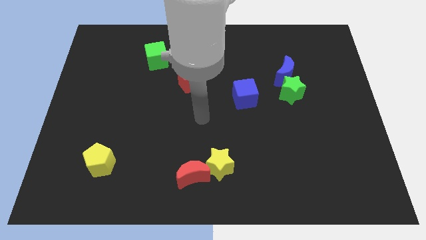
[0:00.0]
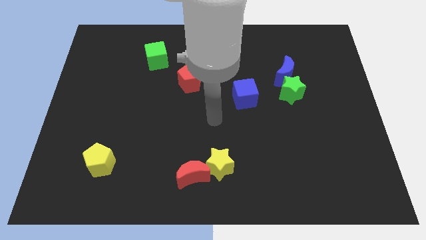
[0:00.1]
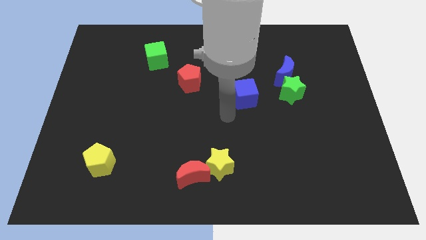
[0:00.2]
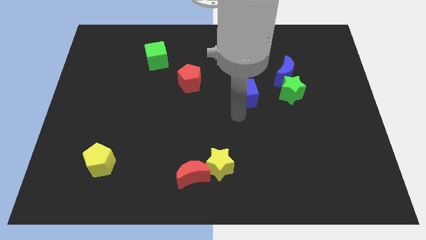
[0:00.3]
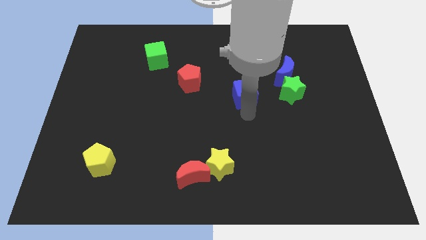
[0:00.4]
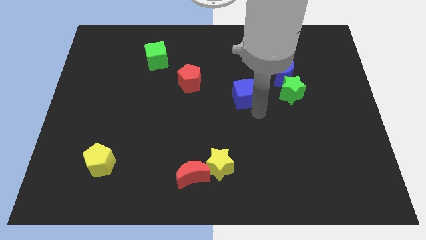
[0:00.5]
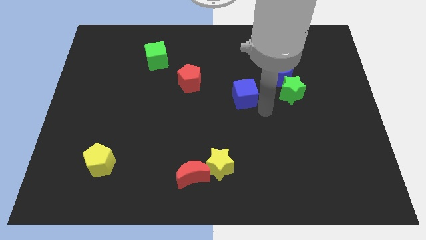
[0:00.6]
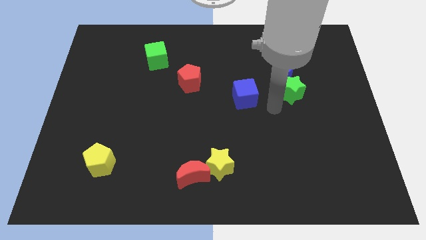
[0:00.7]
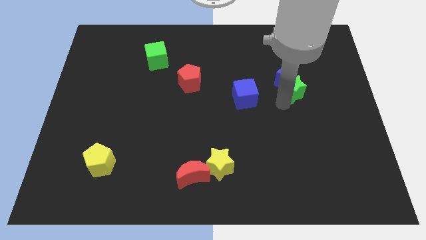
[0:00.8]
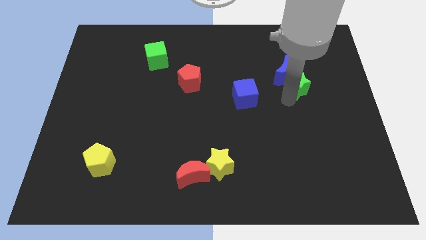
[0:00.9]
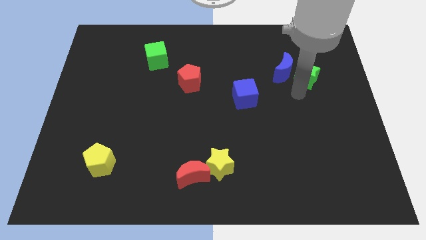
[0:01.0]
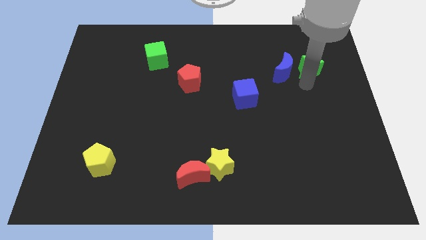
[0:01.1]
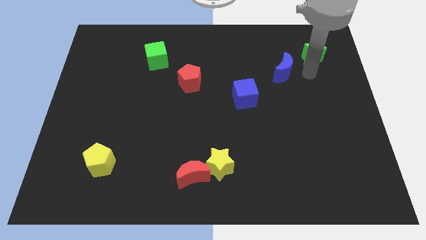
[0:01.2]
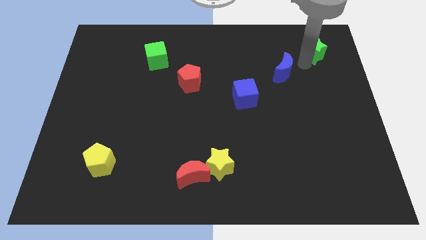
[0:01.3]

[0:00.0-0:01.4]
separate the blue moon from the green star

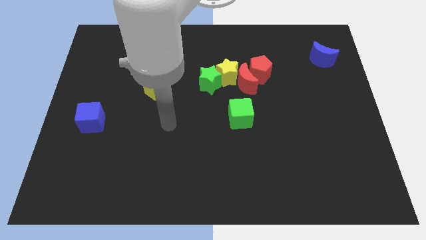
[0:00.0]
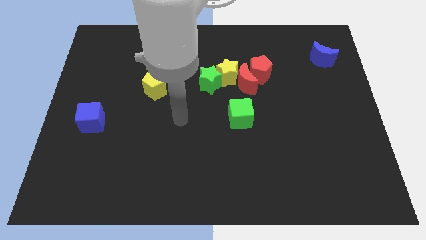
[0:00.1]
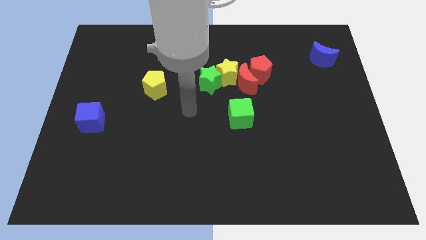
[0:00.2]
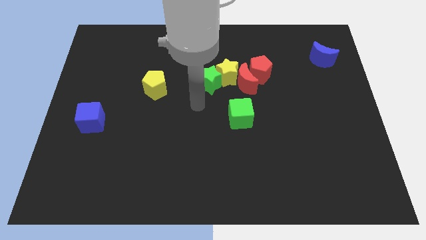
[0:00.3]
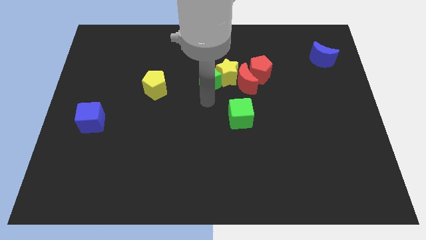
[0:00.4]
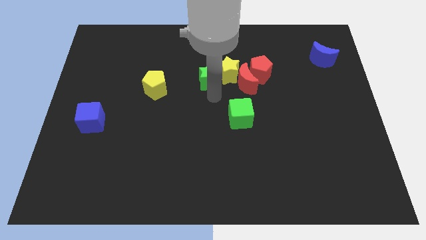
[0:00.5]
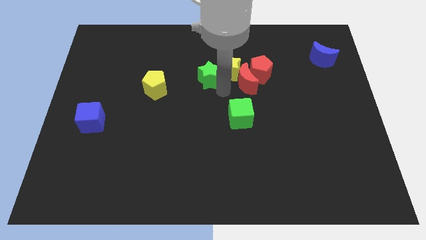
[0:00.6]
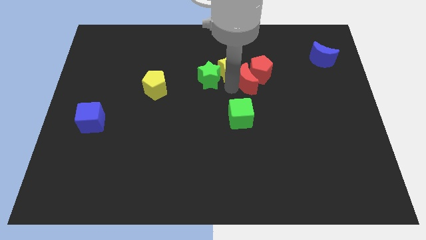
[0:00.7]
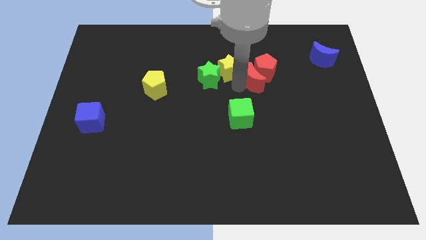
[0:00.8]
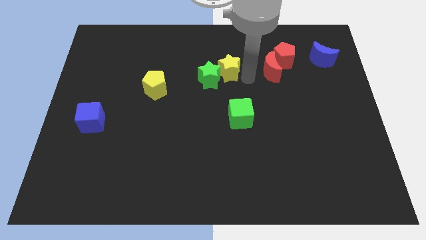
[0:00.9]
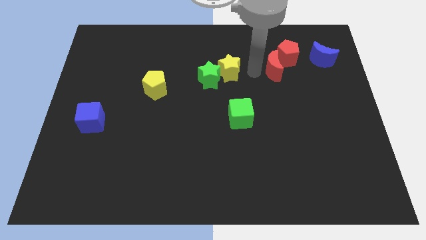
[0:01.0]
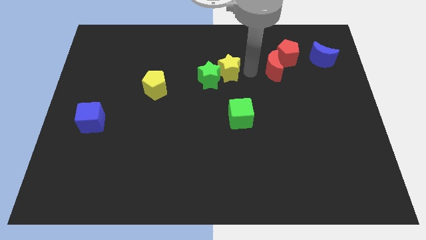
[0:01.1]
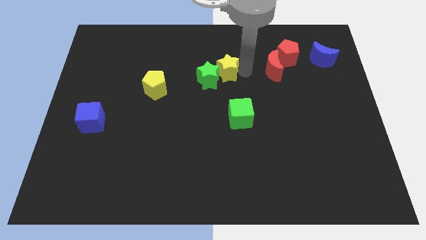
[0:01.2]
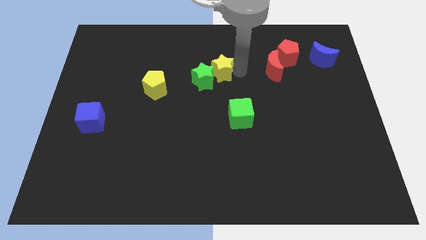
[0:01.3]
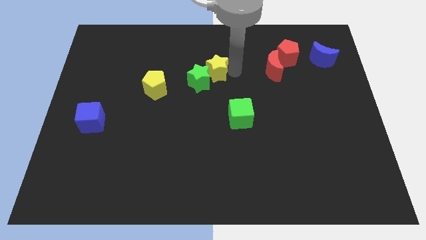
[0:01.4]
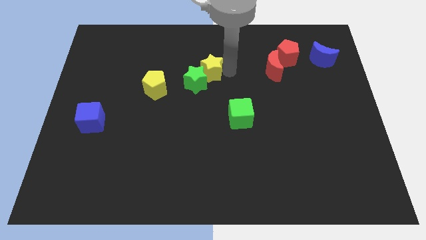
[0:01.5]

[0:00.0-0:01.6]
move the yellow star away from the clump

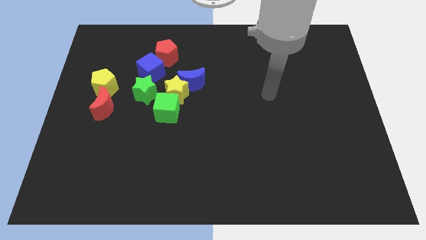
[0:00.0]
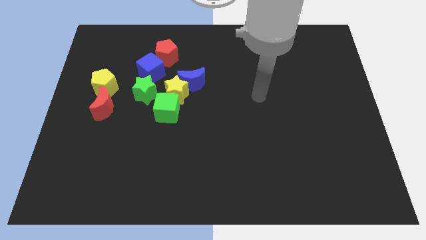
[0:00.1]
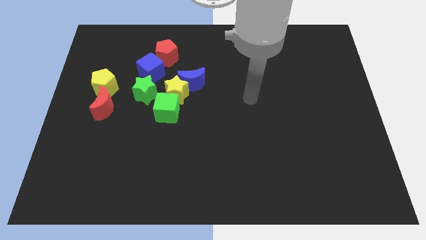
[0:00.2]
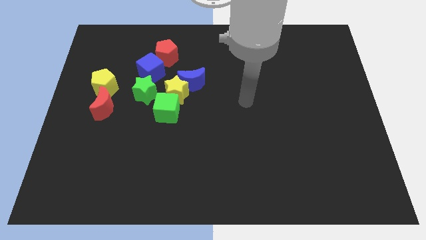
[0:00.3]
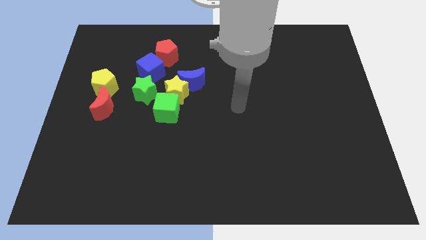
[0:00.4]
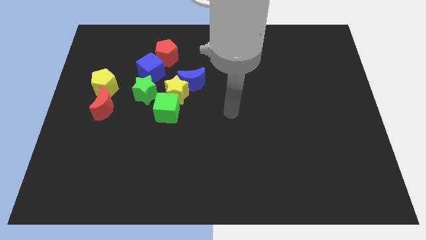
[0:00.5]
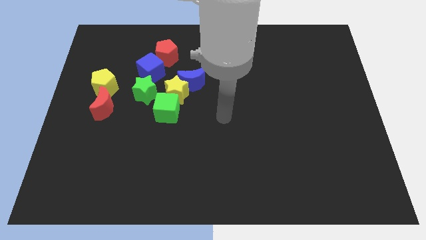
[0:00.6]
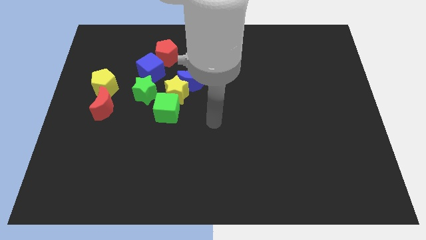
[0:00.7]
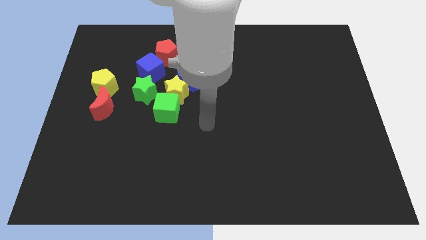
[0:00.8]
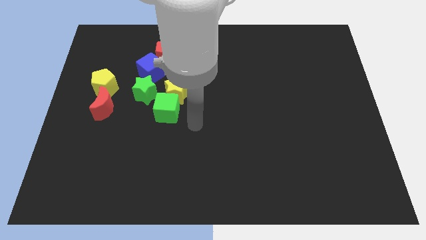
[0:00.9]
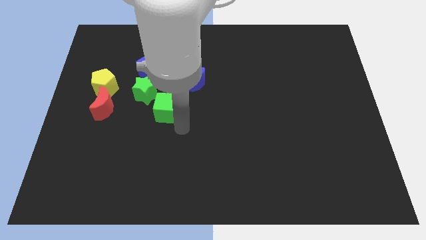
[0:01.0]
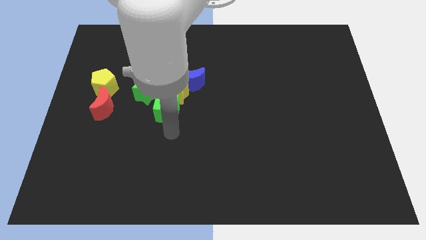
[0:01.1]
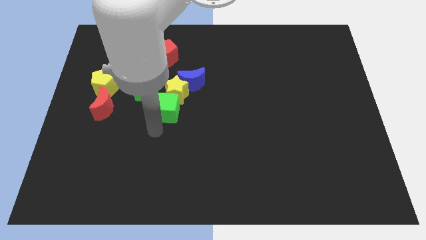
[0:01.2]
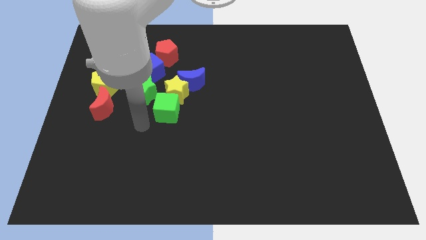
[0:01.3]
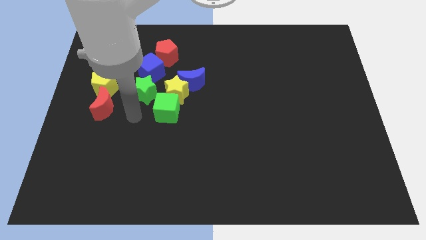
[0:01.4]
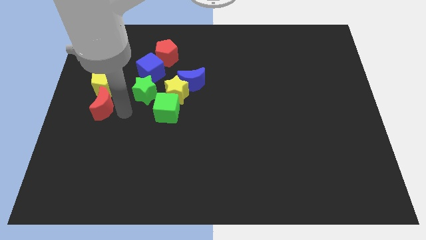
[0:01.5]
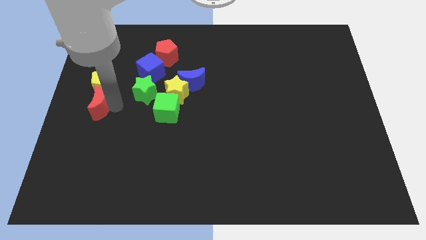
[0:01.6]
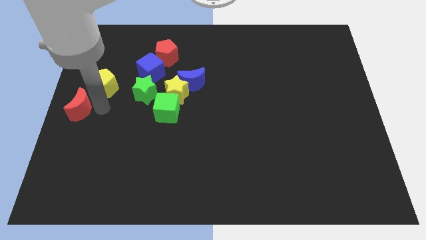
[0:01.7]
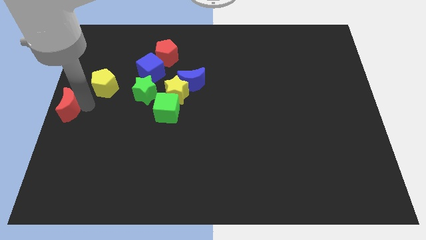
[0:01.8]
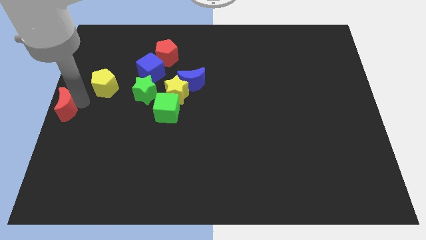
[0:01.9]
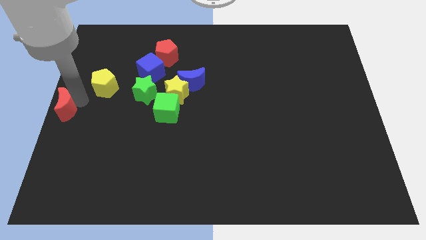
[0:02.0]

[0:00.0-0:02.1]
move the yellow pentagon away from the red moon

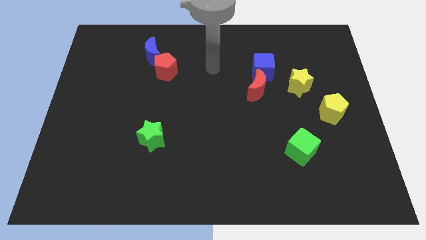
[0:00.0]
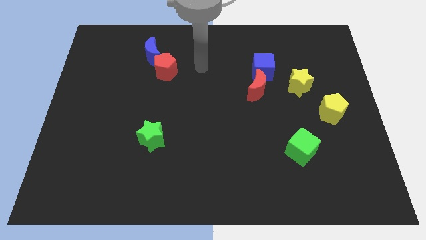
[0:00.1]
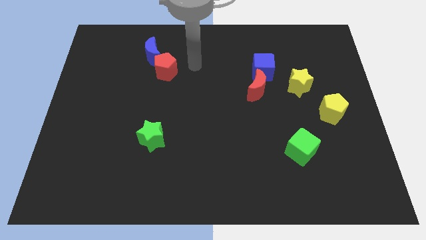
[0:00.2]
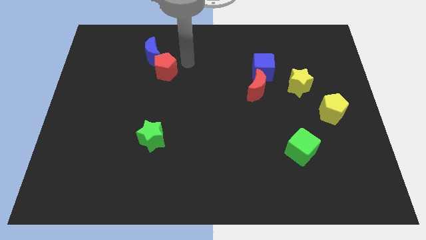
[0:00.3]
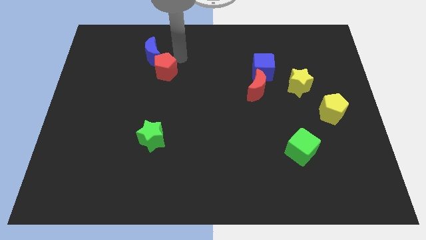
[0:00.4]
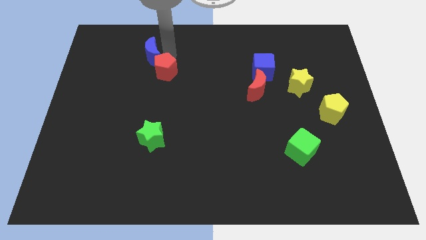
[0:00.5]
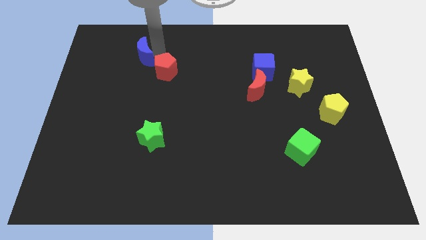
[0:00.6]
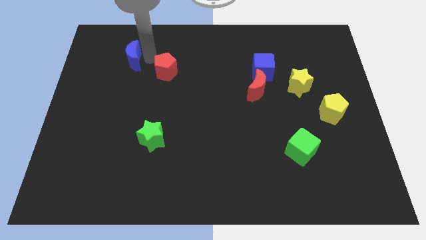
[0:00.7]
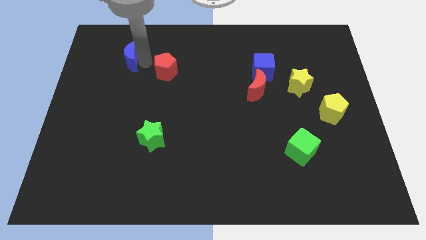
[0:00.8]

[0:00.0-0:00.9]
separate the red pentagon from the blue moon

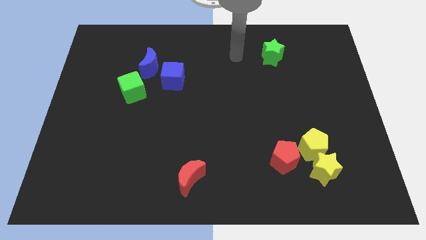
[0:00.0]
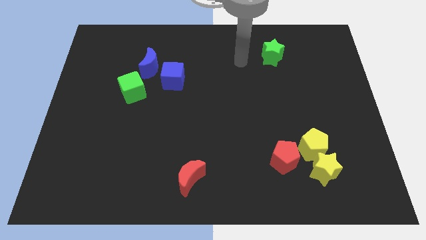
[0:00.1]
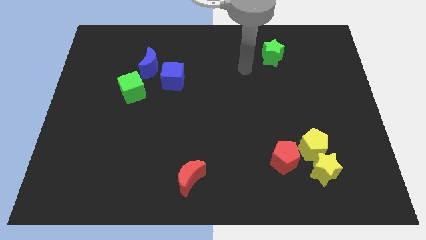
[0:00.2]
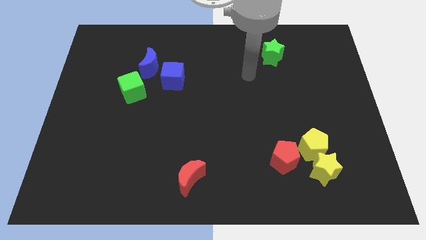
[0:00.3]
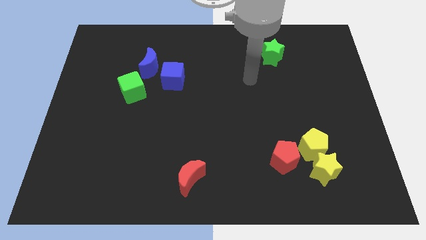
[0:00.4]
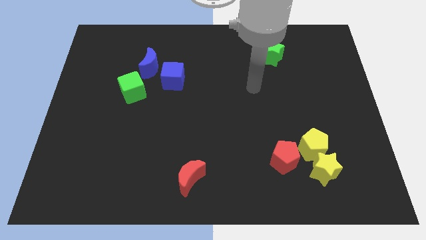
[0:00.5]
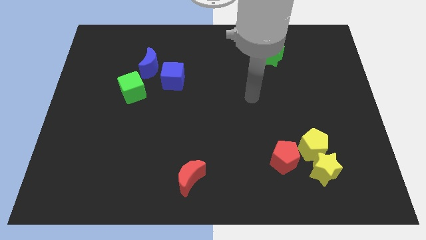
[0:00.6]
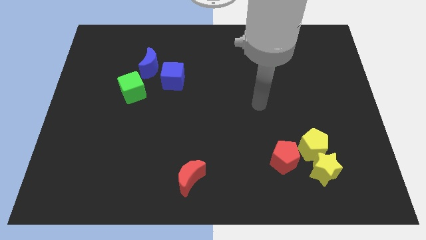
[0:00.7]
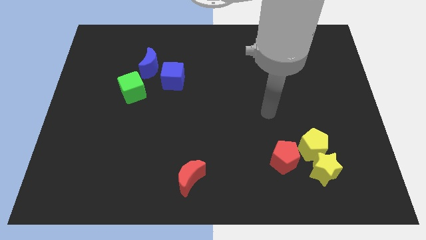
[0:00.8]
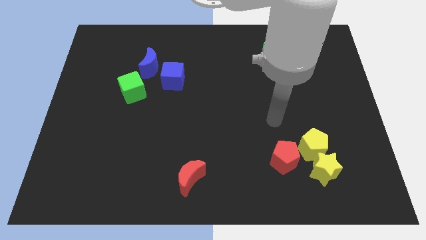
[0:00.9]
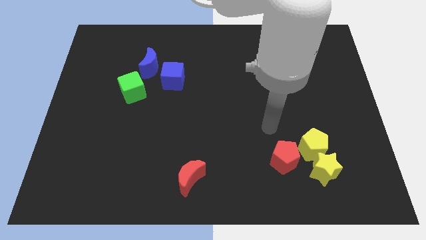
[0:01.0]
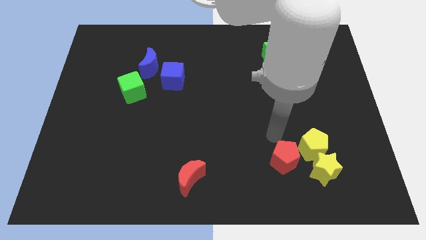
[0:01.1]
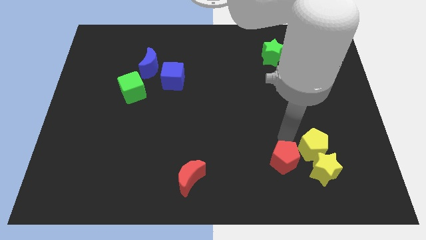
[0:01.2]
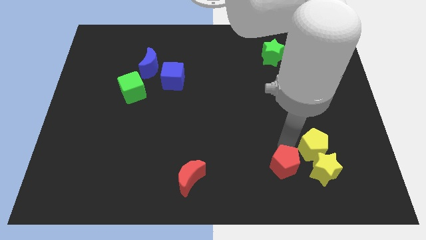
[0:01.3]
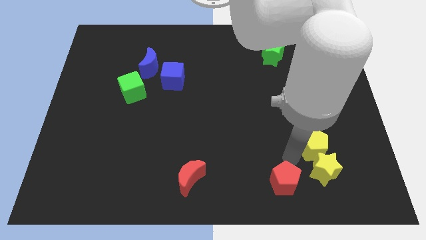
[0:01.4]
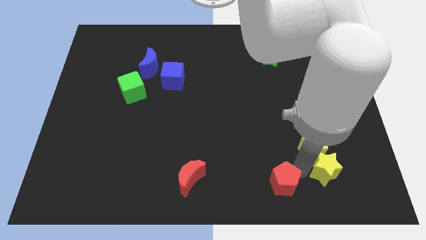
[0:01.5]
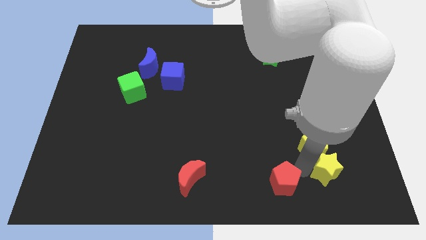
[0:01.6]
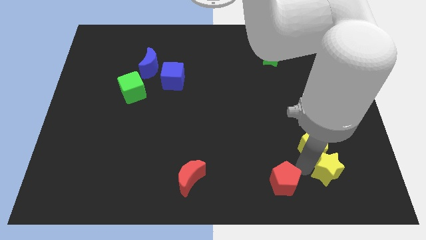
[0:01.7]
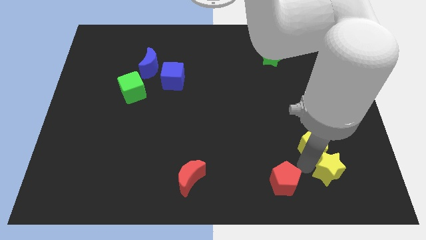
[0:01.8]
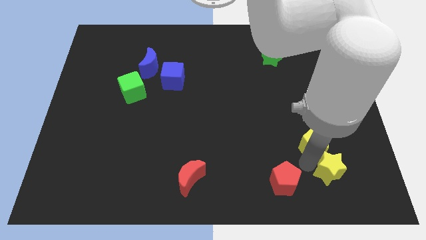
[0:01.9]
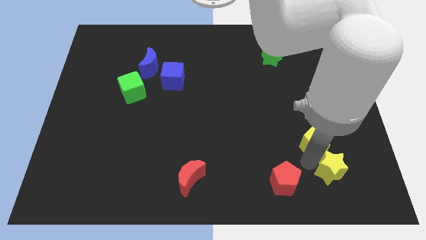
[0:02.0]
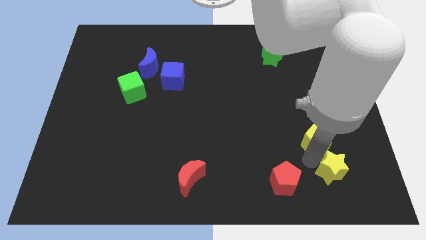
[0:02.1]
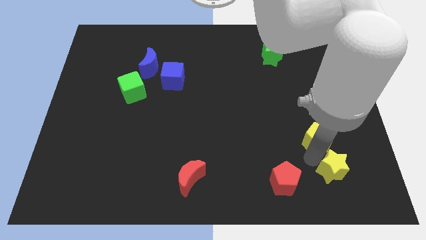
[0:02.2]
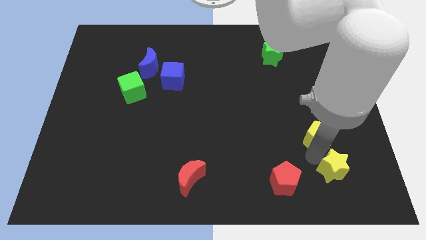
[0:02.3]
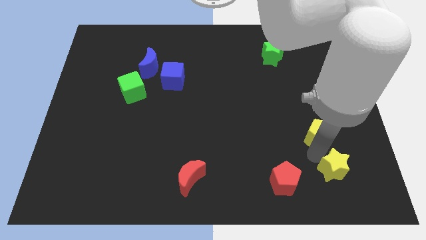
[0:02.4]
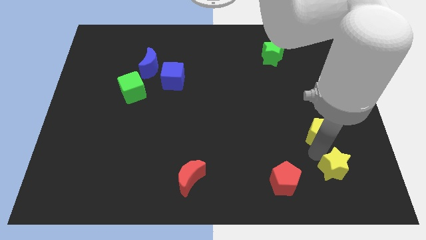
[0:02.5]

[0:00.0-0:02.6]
separate the yellow pentagon from the yellow star and red pentagon

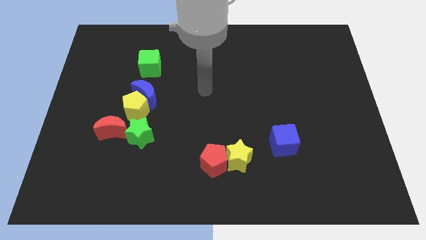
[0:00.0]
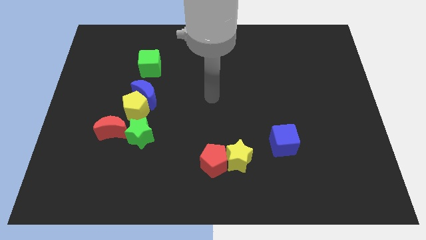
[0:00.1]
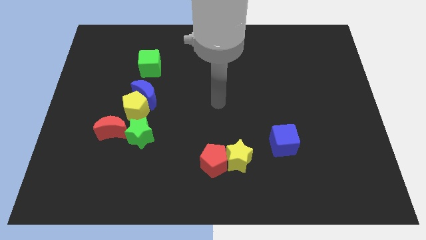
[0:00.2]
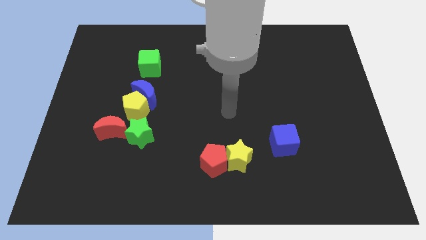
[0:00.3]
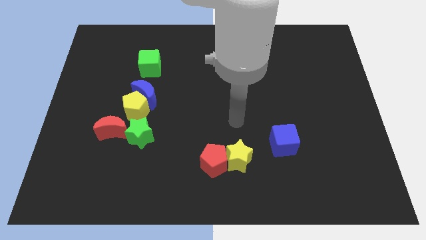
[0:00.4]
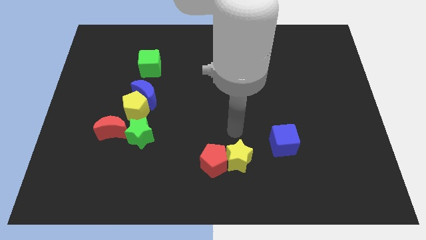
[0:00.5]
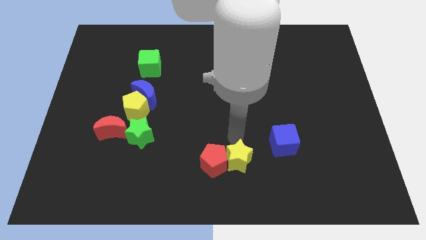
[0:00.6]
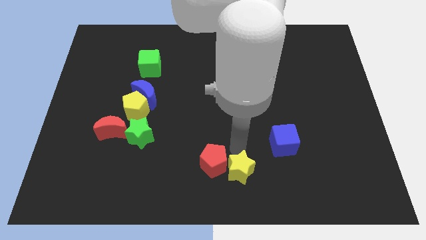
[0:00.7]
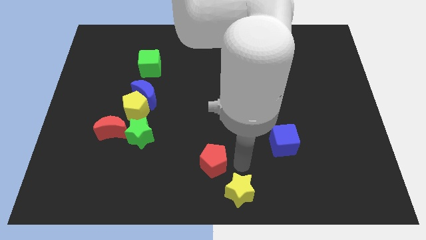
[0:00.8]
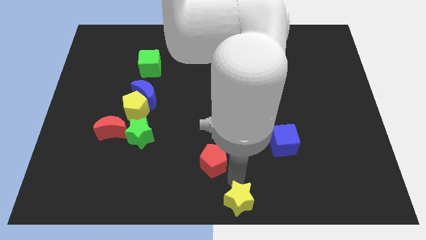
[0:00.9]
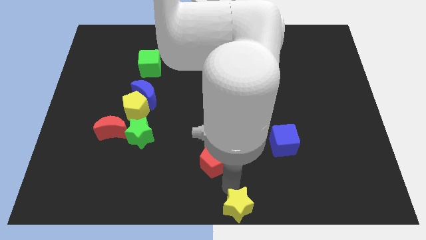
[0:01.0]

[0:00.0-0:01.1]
pull the red pentagon apart from the yellow star
